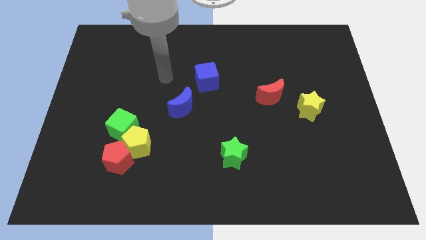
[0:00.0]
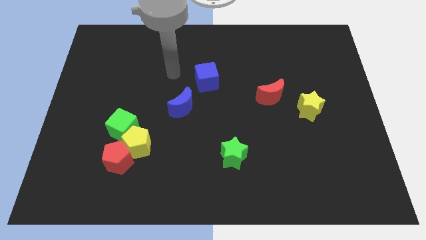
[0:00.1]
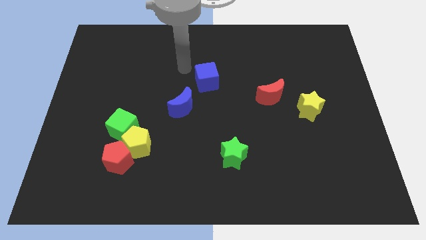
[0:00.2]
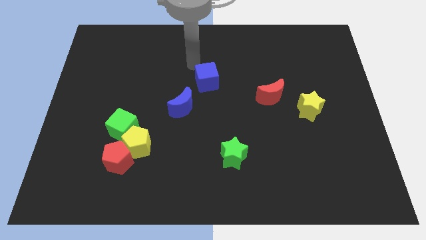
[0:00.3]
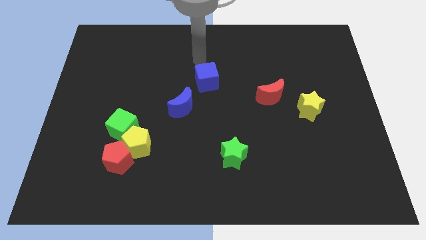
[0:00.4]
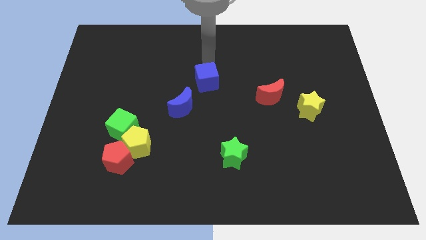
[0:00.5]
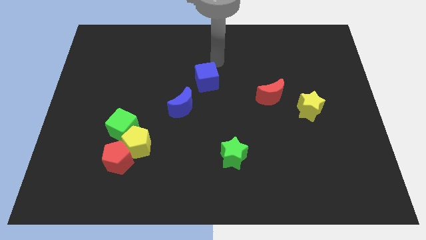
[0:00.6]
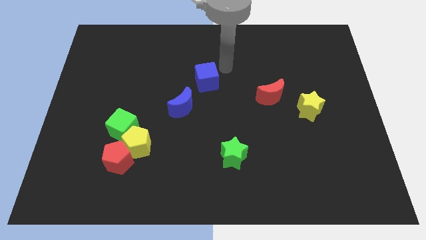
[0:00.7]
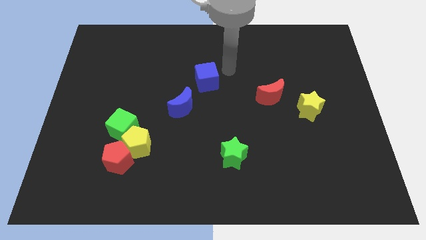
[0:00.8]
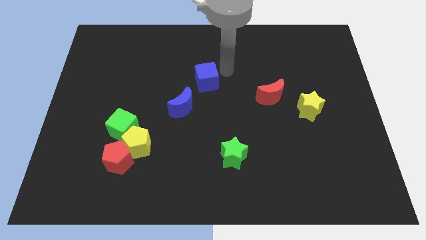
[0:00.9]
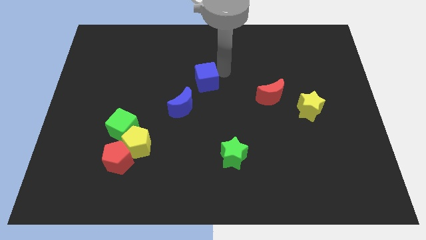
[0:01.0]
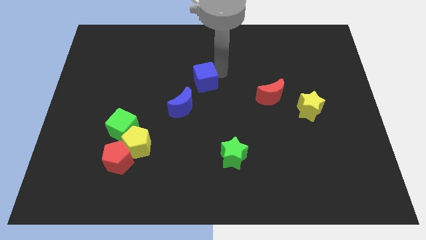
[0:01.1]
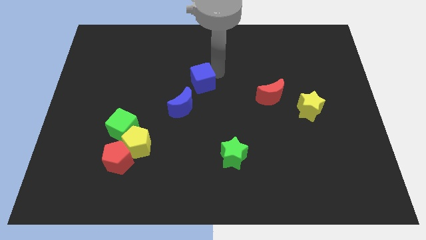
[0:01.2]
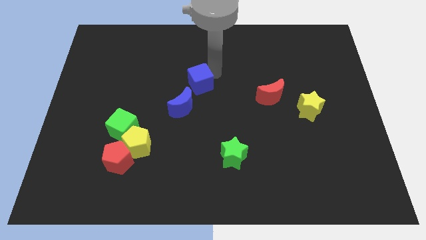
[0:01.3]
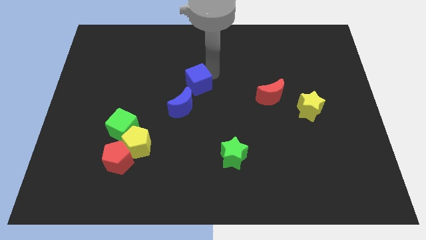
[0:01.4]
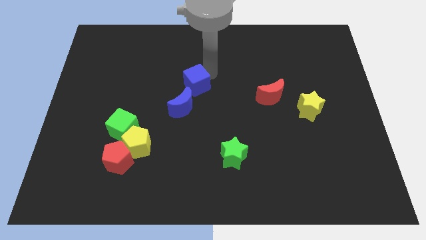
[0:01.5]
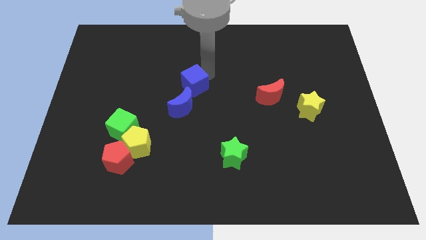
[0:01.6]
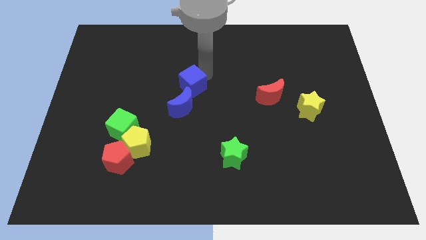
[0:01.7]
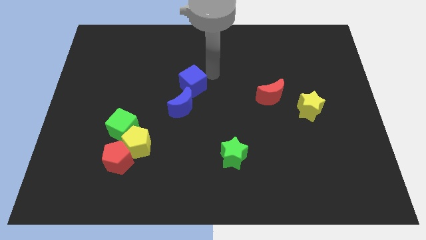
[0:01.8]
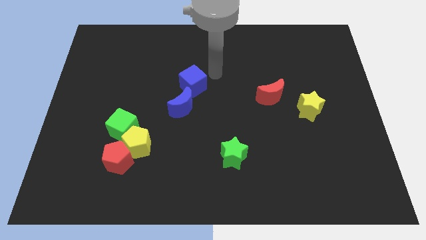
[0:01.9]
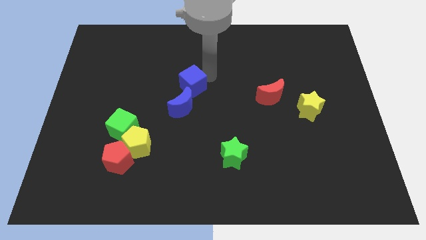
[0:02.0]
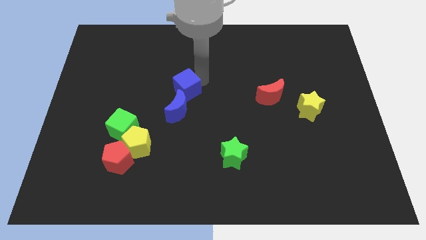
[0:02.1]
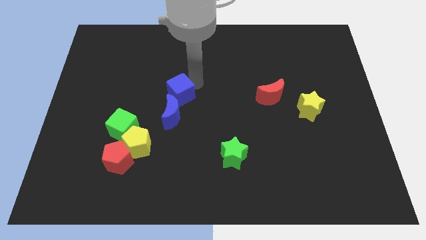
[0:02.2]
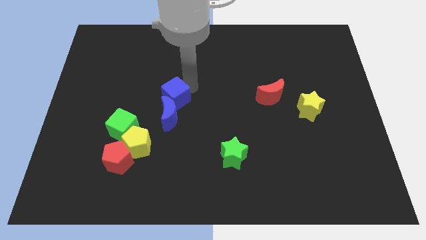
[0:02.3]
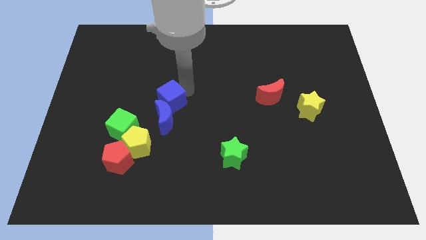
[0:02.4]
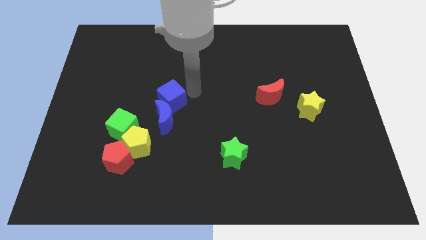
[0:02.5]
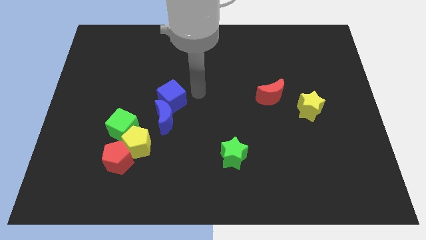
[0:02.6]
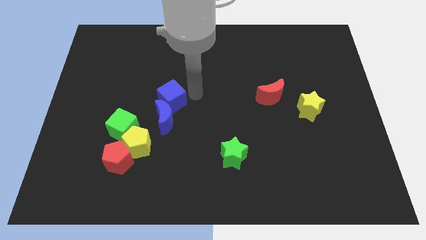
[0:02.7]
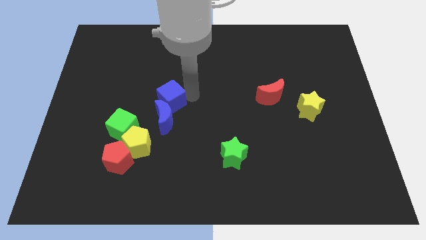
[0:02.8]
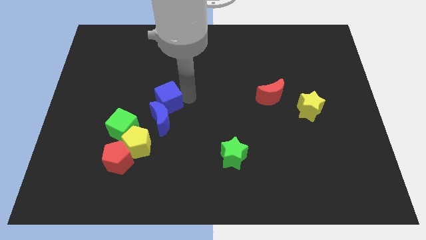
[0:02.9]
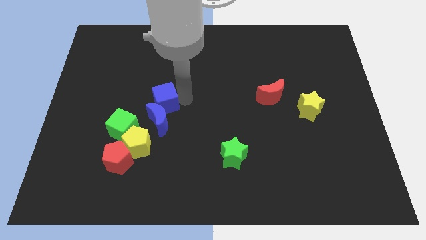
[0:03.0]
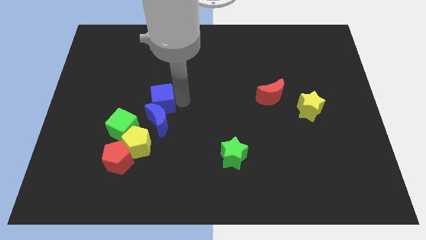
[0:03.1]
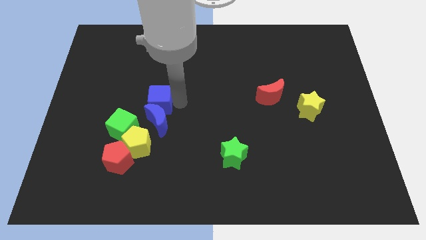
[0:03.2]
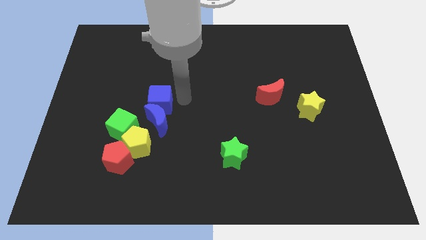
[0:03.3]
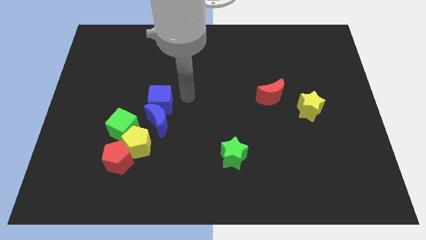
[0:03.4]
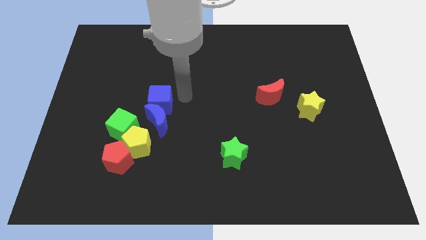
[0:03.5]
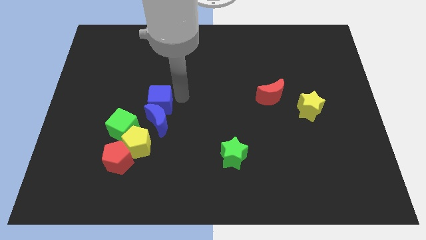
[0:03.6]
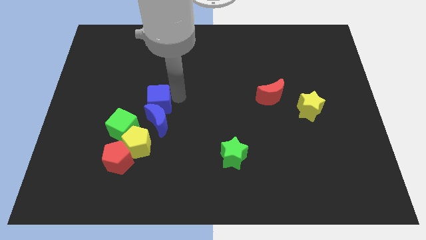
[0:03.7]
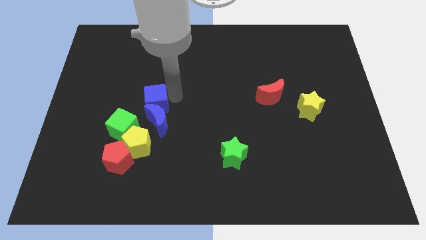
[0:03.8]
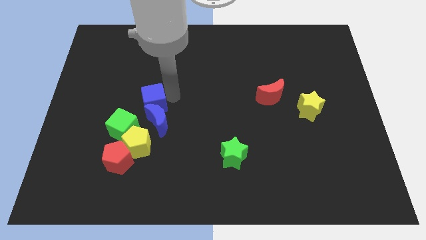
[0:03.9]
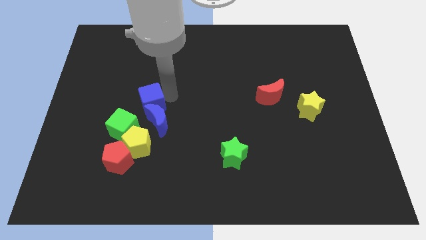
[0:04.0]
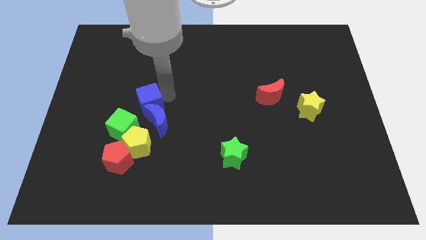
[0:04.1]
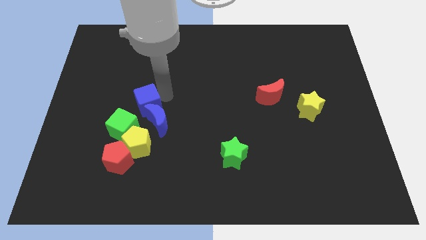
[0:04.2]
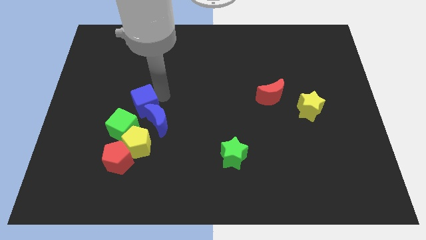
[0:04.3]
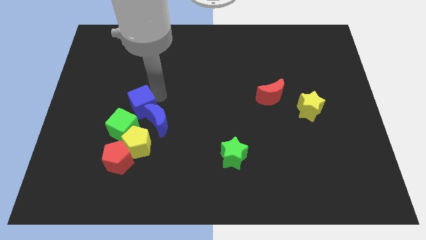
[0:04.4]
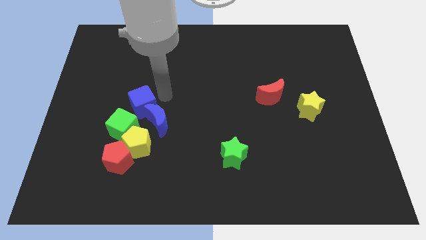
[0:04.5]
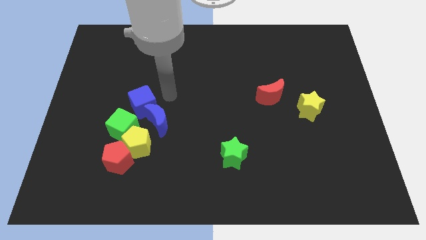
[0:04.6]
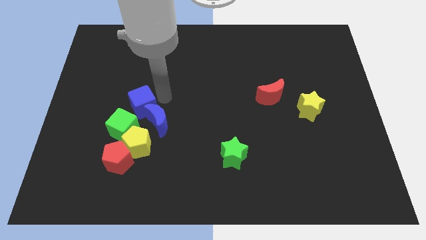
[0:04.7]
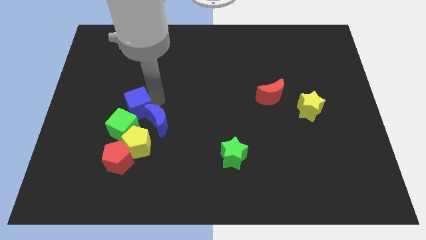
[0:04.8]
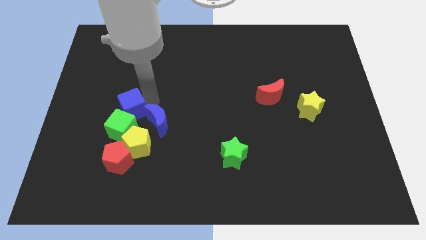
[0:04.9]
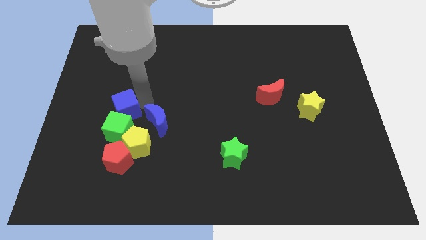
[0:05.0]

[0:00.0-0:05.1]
push the blue cube diagonally up and to the left of the yellow pentagon

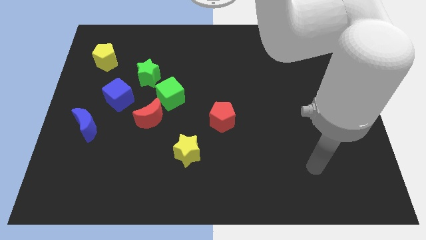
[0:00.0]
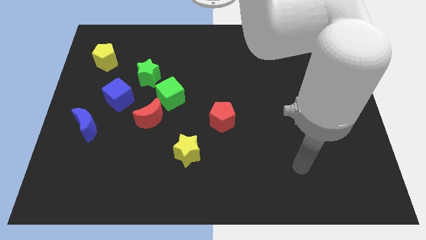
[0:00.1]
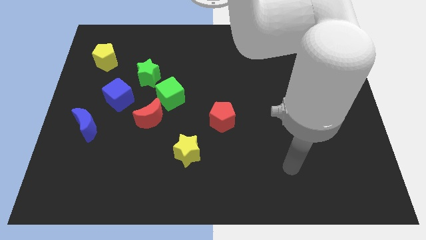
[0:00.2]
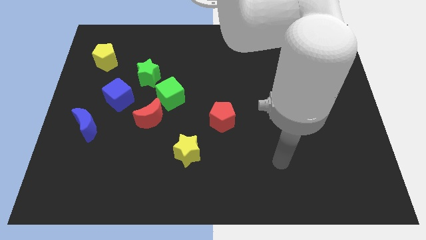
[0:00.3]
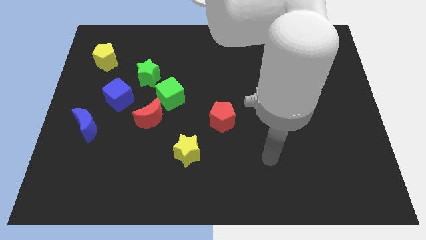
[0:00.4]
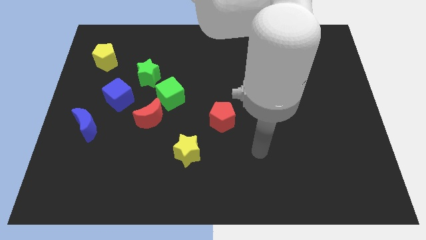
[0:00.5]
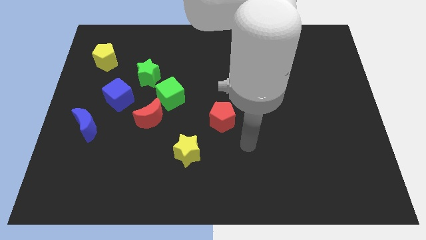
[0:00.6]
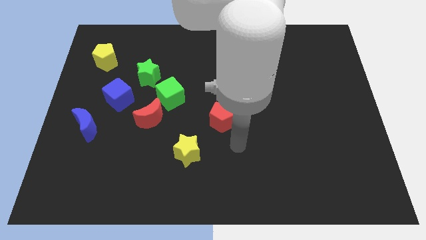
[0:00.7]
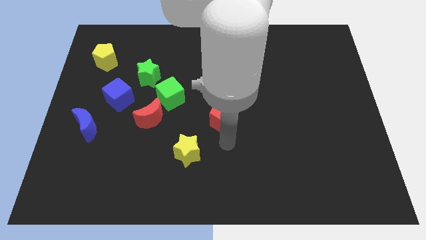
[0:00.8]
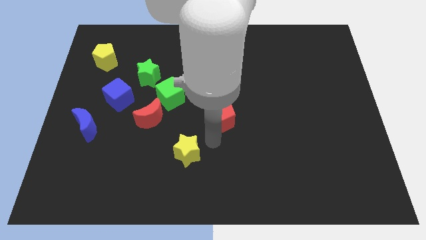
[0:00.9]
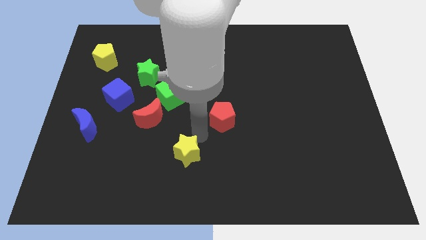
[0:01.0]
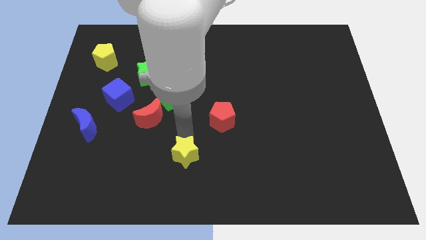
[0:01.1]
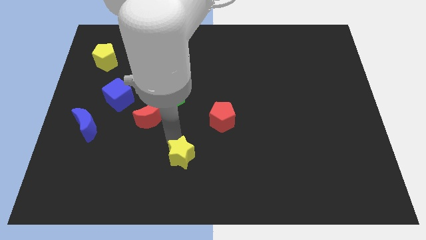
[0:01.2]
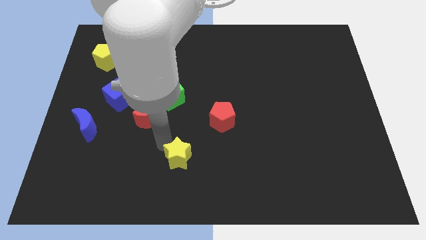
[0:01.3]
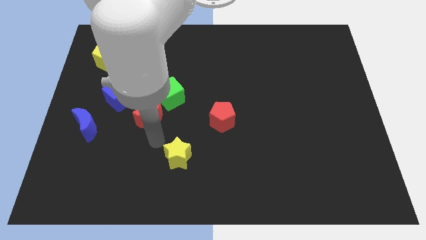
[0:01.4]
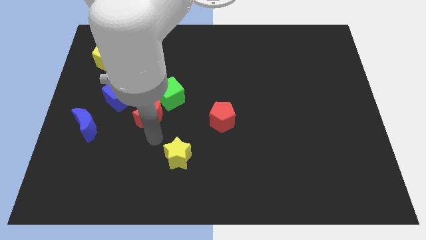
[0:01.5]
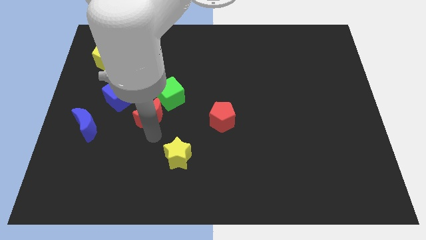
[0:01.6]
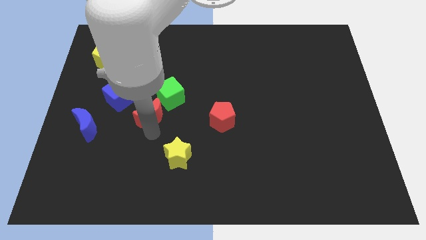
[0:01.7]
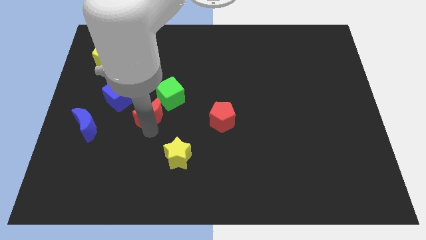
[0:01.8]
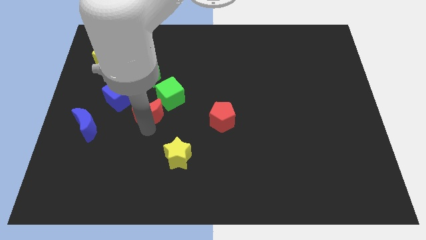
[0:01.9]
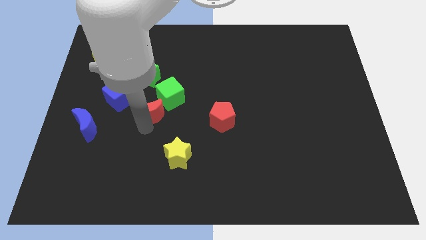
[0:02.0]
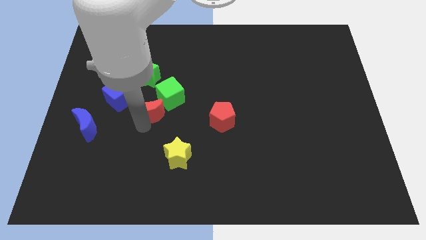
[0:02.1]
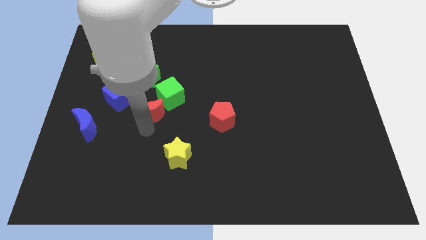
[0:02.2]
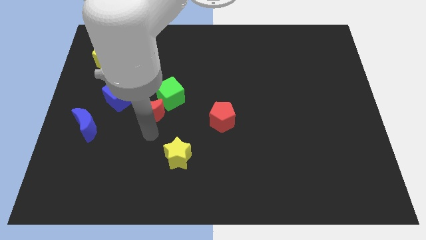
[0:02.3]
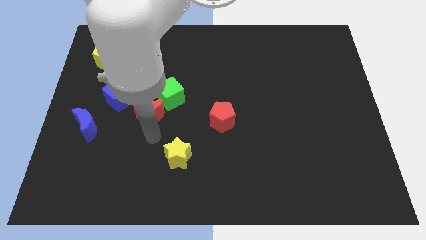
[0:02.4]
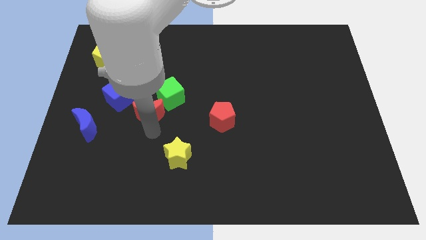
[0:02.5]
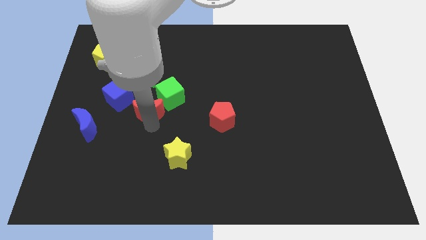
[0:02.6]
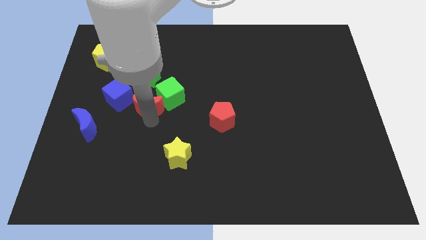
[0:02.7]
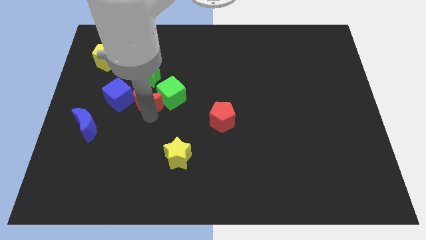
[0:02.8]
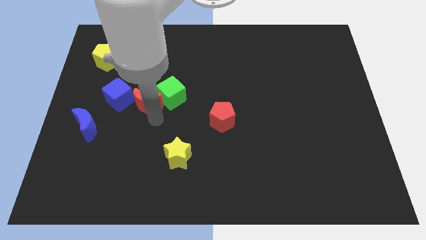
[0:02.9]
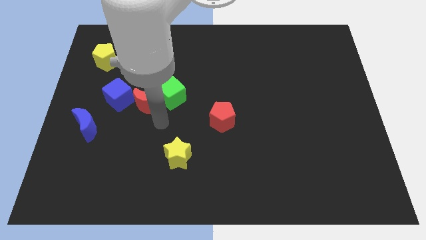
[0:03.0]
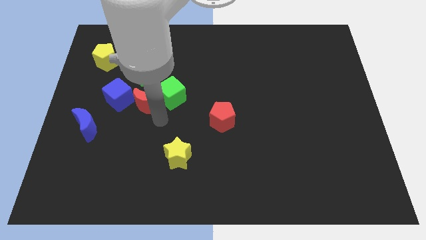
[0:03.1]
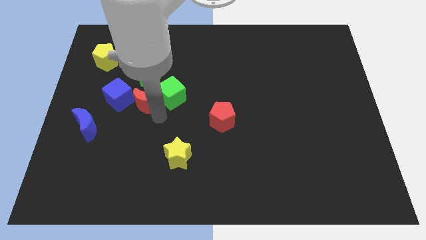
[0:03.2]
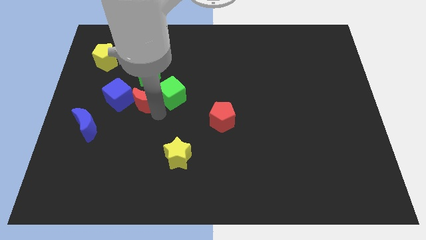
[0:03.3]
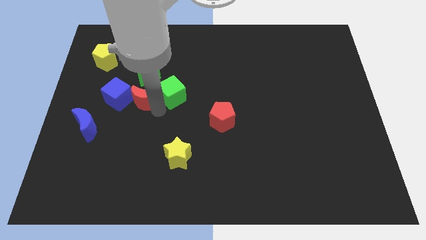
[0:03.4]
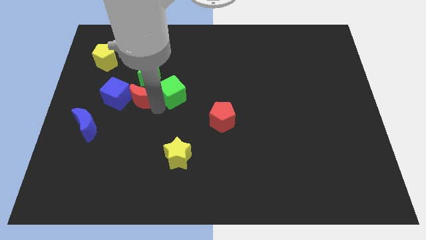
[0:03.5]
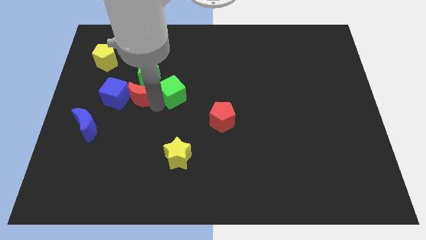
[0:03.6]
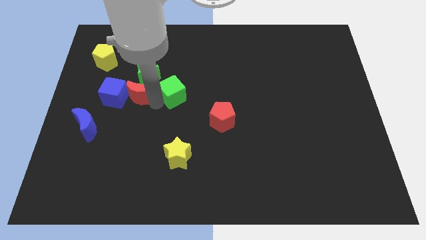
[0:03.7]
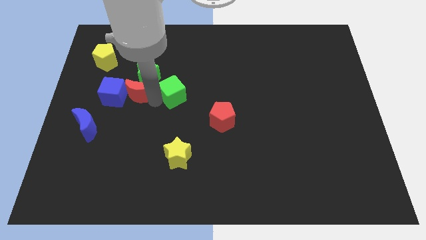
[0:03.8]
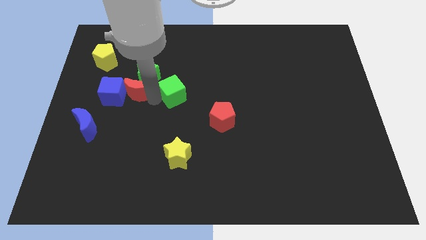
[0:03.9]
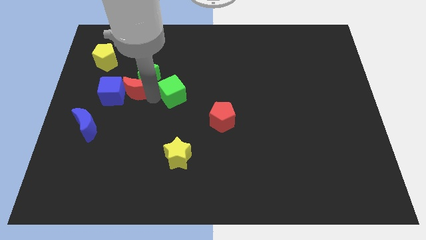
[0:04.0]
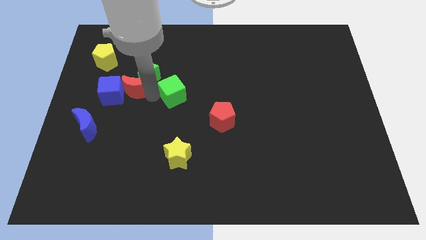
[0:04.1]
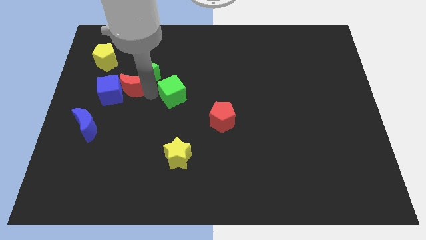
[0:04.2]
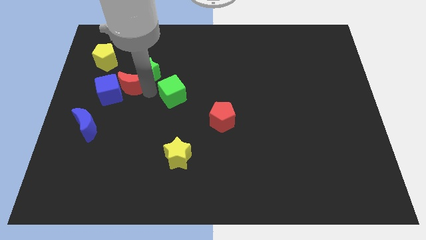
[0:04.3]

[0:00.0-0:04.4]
put the red moon to the bottom right side of the yellow pentagon
